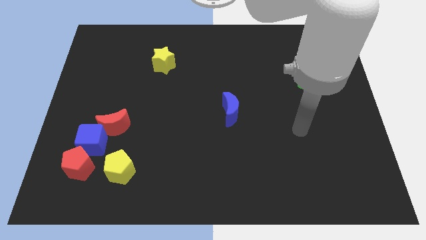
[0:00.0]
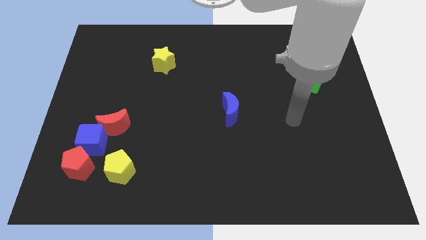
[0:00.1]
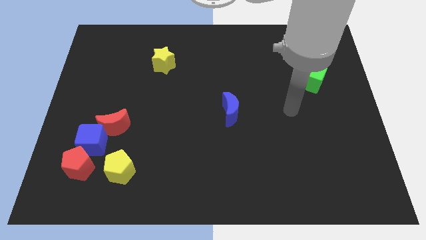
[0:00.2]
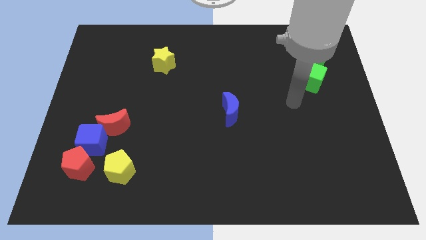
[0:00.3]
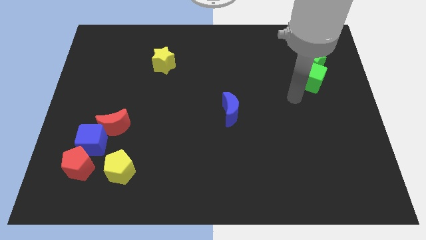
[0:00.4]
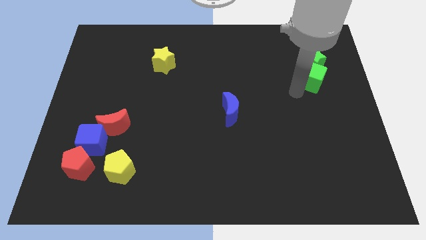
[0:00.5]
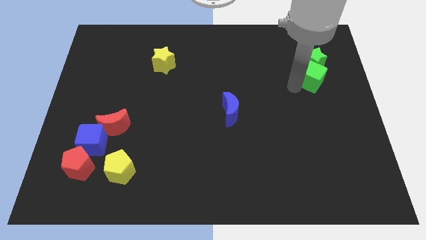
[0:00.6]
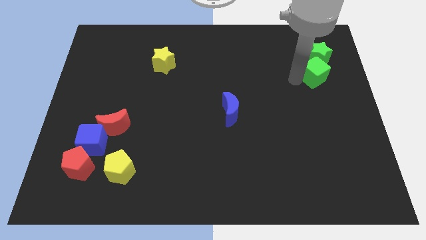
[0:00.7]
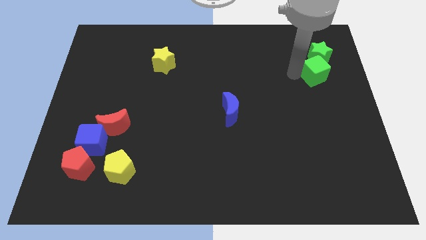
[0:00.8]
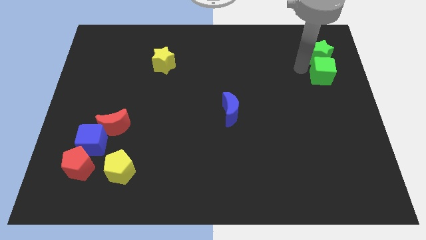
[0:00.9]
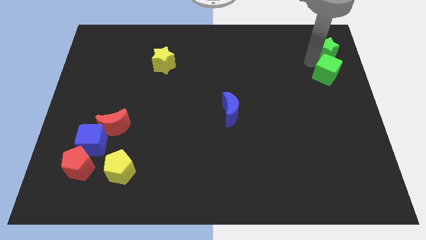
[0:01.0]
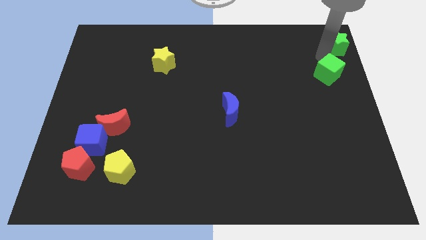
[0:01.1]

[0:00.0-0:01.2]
move the green cube away from the green star

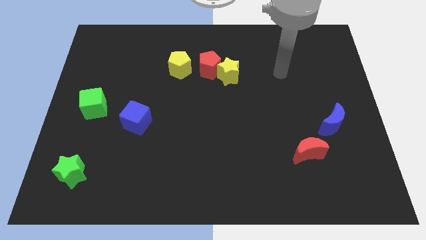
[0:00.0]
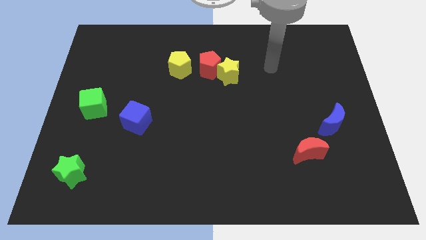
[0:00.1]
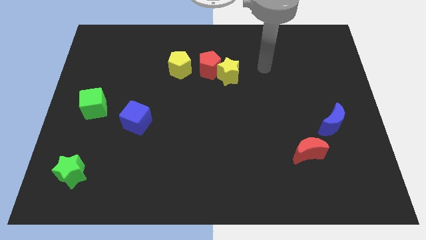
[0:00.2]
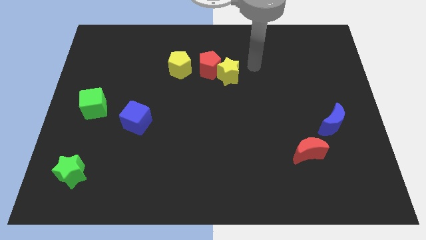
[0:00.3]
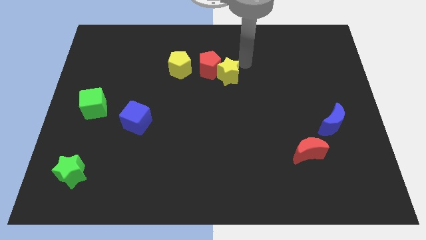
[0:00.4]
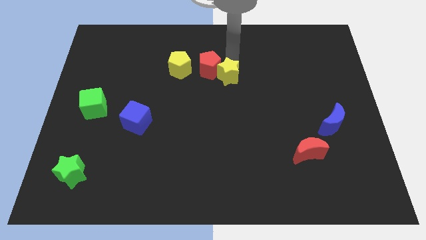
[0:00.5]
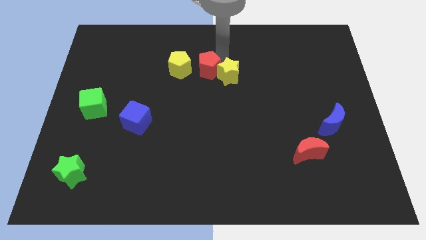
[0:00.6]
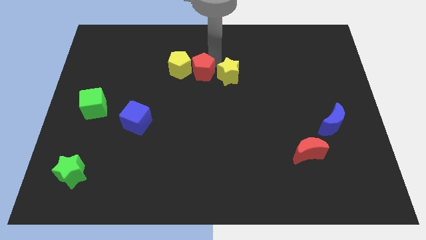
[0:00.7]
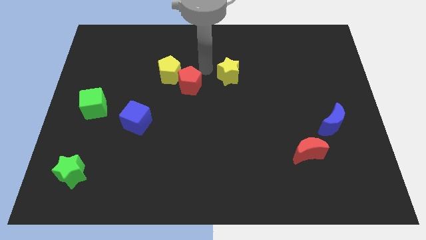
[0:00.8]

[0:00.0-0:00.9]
separate the yellow star from the red pentagon

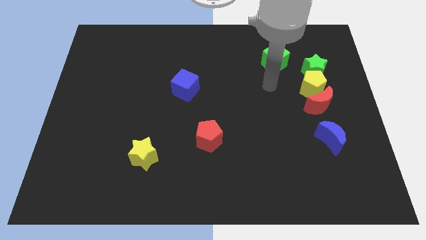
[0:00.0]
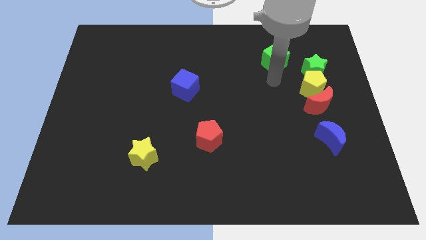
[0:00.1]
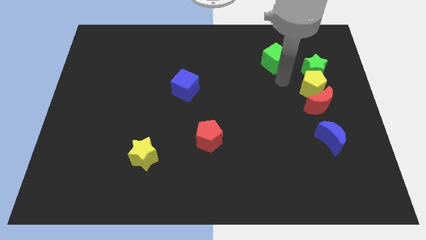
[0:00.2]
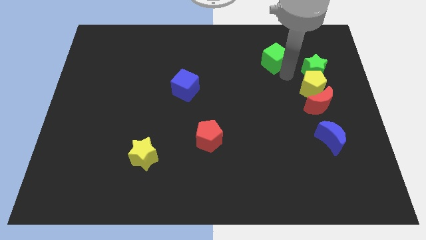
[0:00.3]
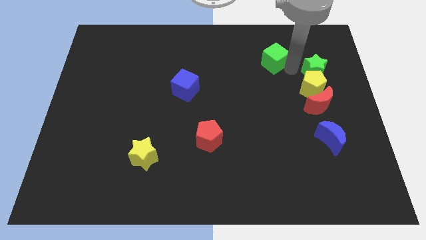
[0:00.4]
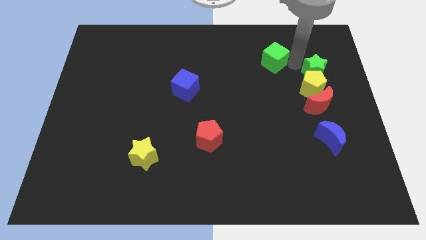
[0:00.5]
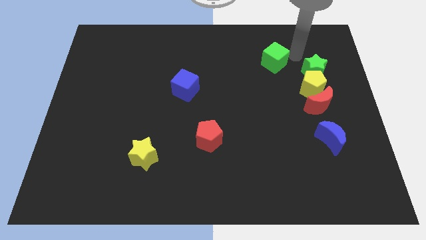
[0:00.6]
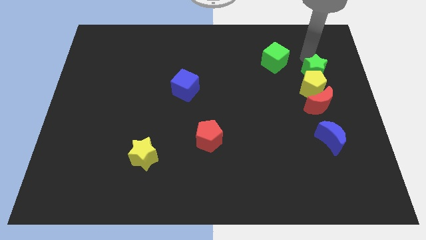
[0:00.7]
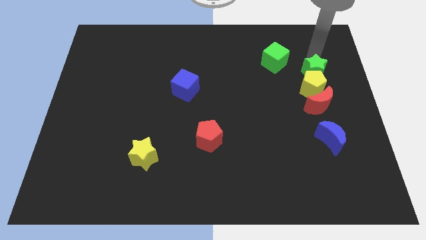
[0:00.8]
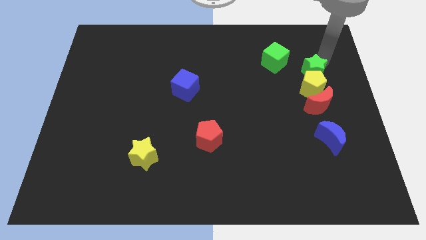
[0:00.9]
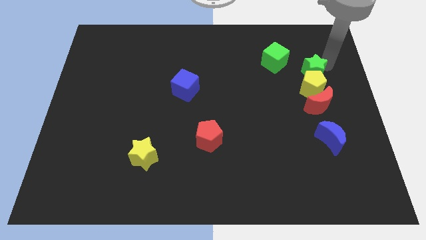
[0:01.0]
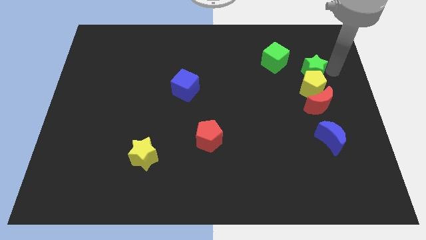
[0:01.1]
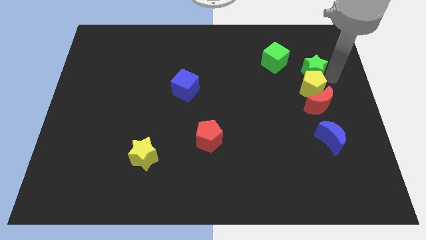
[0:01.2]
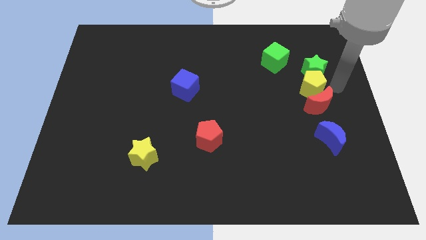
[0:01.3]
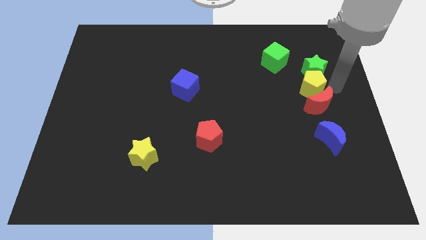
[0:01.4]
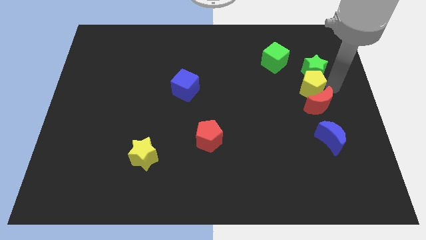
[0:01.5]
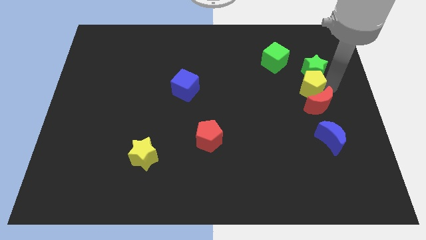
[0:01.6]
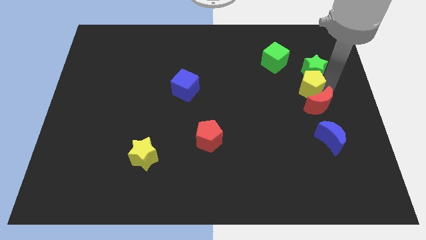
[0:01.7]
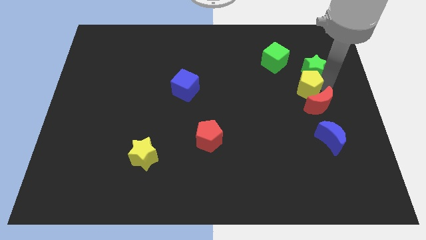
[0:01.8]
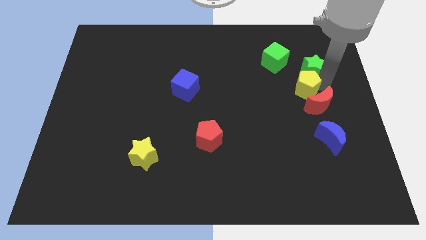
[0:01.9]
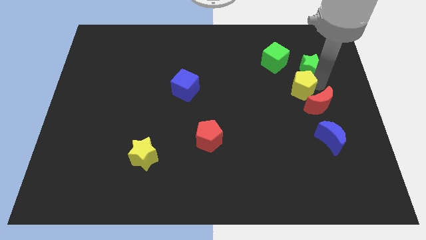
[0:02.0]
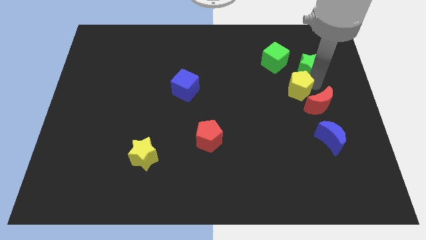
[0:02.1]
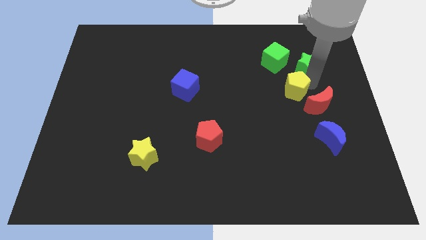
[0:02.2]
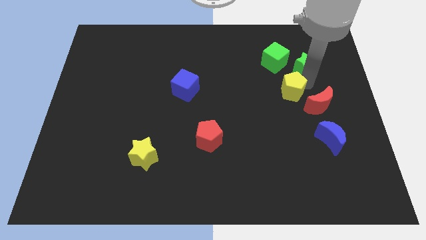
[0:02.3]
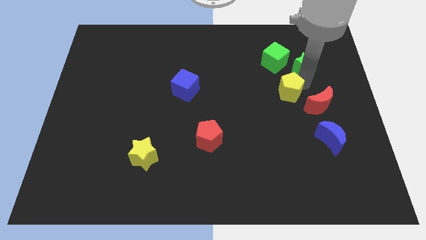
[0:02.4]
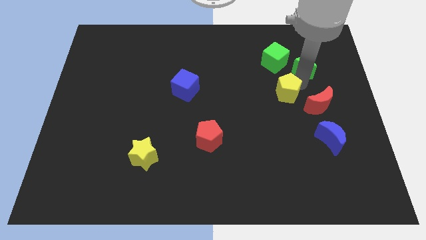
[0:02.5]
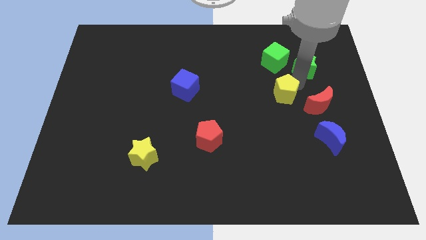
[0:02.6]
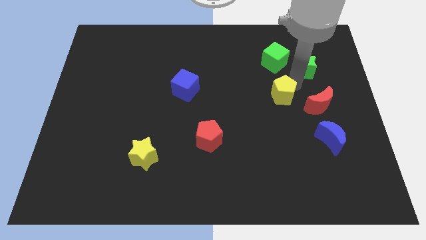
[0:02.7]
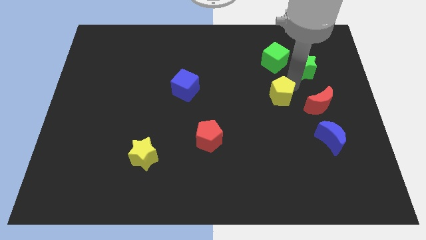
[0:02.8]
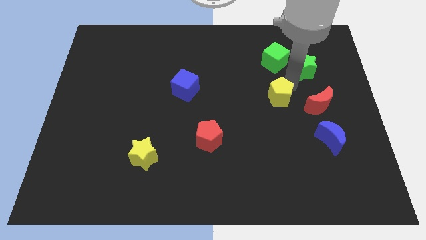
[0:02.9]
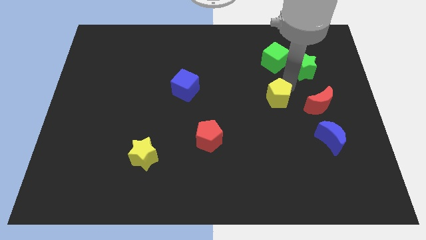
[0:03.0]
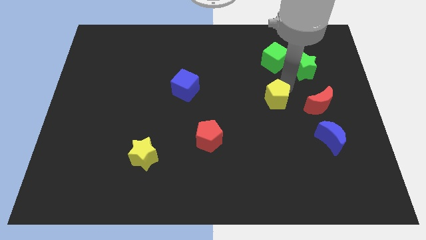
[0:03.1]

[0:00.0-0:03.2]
pull the yellow pentagon apart from the red moon and green star

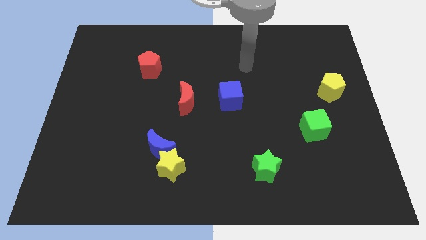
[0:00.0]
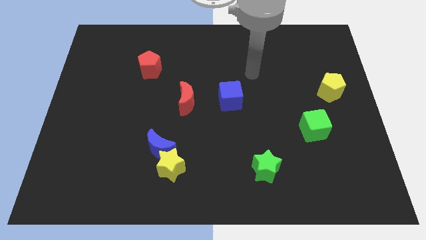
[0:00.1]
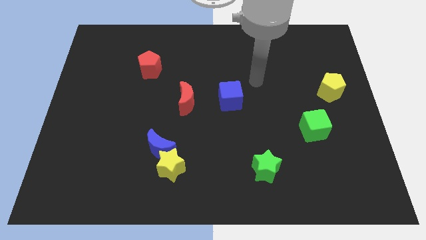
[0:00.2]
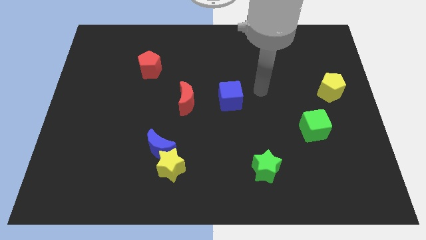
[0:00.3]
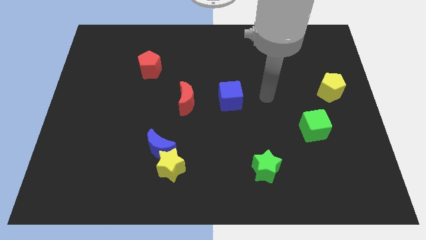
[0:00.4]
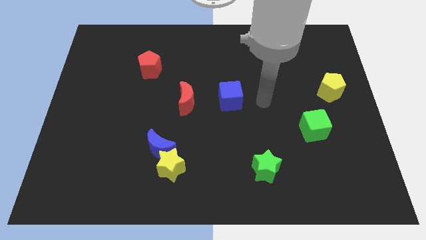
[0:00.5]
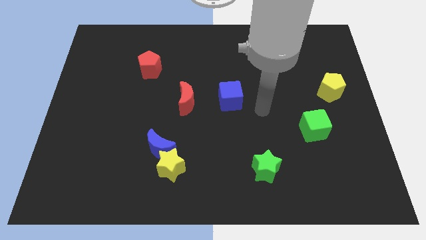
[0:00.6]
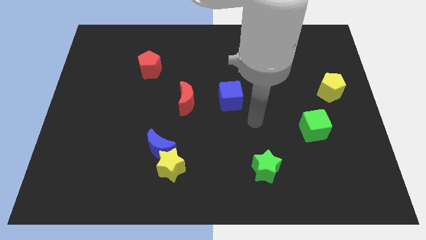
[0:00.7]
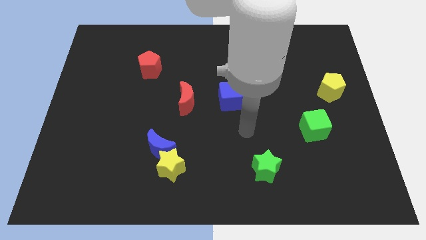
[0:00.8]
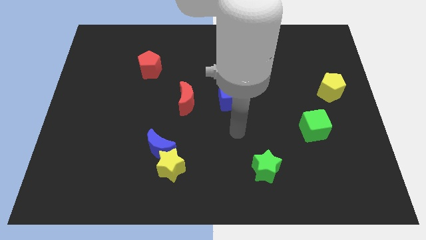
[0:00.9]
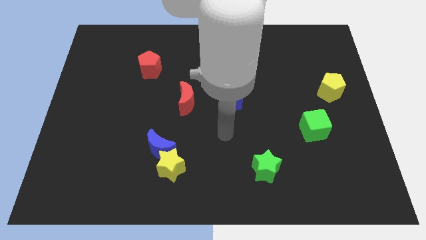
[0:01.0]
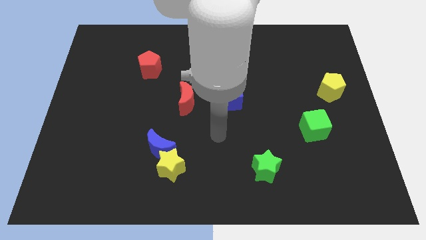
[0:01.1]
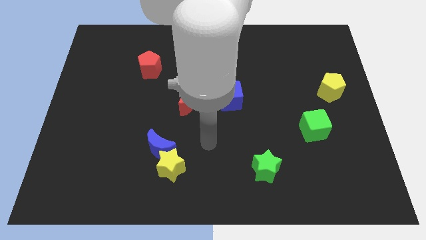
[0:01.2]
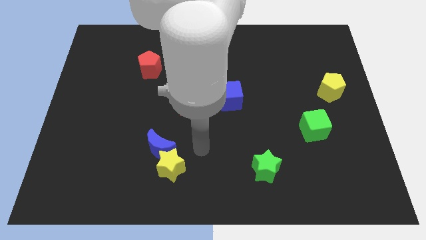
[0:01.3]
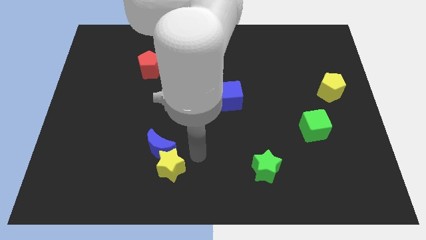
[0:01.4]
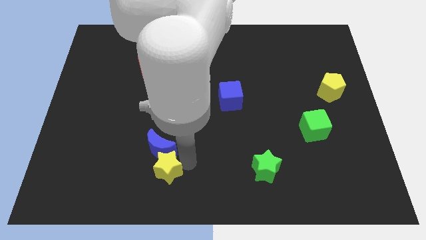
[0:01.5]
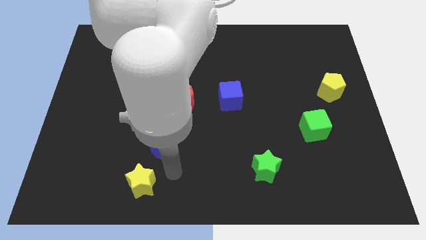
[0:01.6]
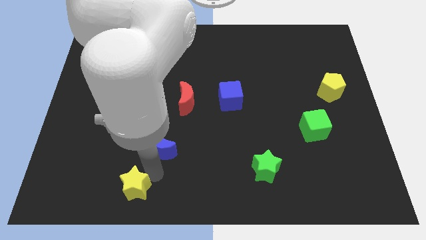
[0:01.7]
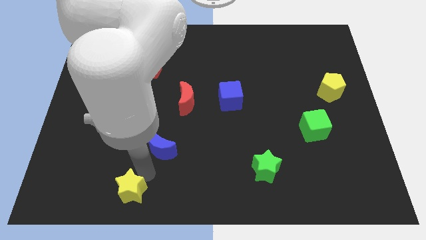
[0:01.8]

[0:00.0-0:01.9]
separate the blue moon from the yellow star

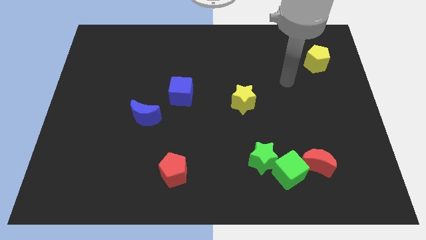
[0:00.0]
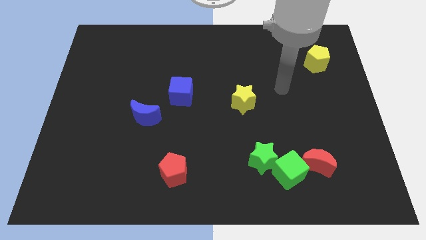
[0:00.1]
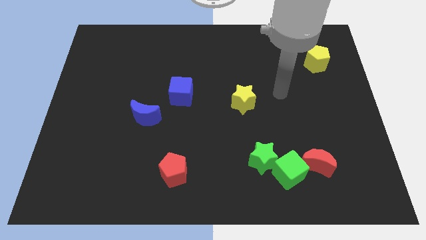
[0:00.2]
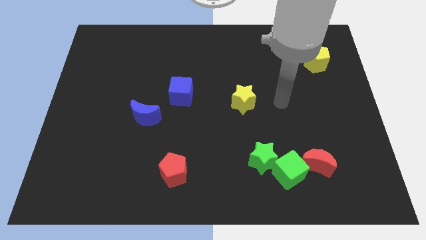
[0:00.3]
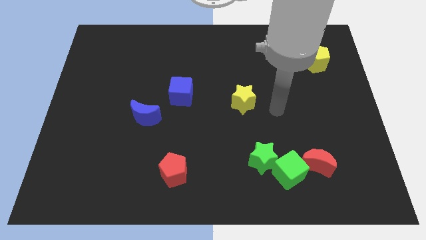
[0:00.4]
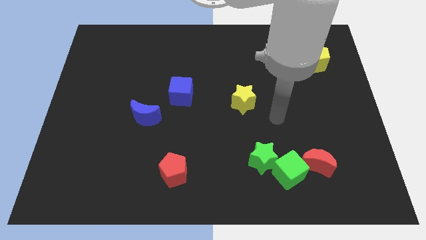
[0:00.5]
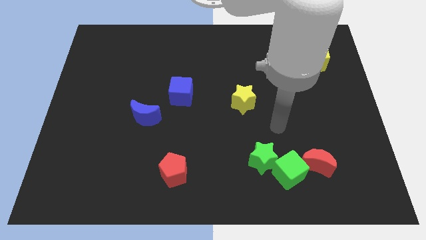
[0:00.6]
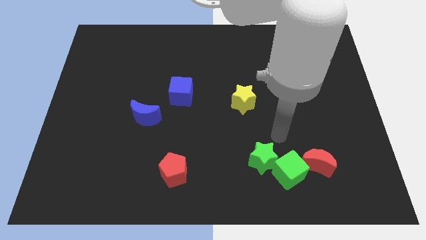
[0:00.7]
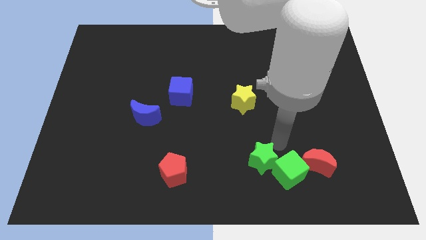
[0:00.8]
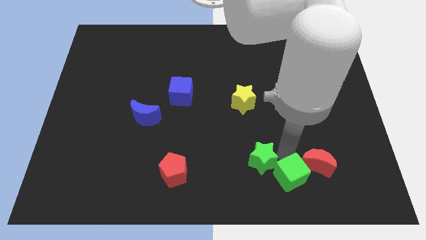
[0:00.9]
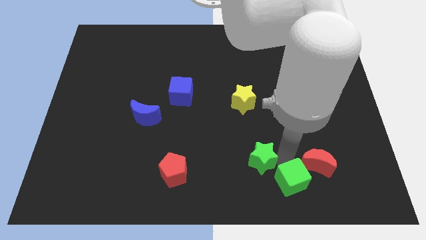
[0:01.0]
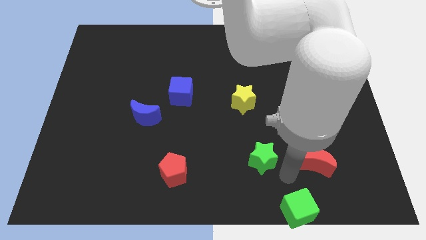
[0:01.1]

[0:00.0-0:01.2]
separate the green star from the green cube

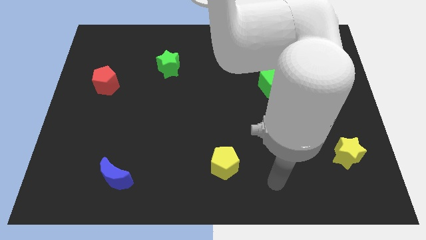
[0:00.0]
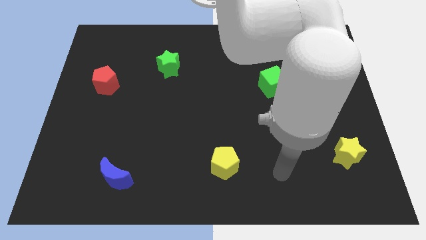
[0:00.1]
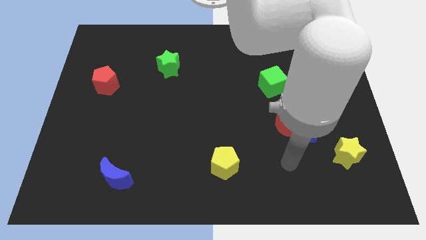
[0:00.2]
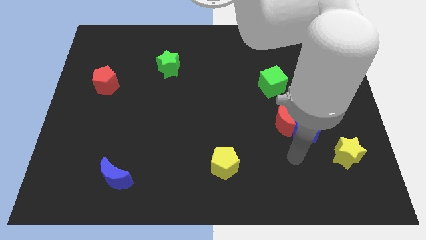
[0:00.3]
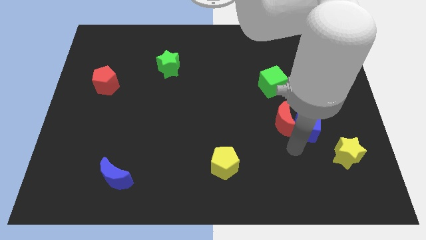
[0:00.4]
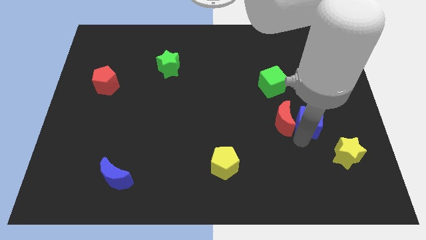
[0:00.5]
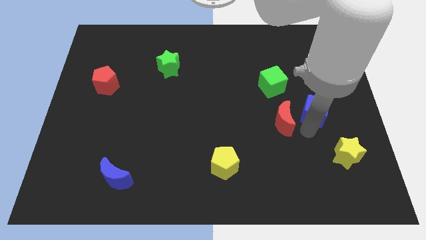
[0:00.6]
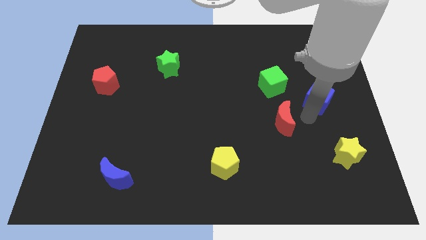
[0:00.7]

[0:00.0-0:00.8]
pull the red moon apart from the blue cube

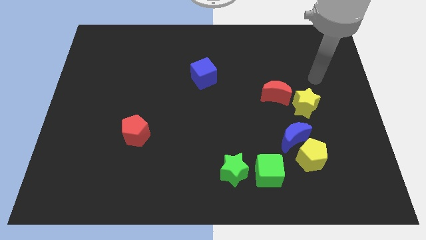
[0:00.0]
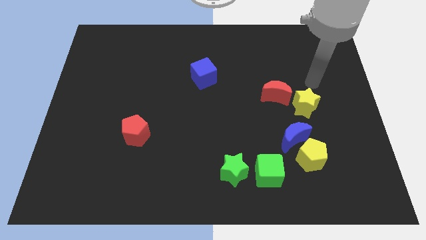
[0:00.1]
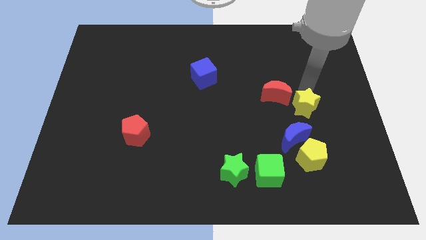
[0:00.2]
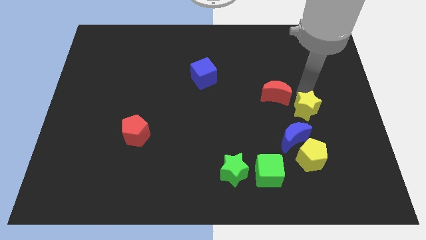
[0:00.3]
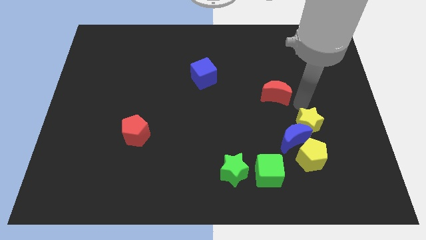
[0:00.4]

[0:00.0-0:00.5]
separate the red moon from the yellow star
